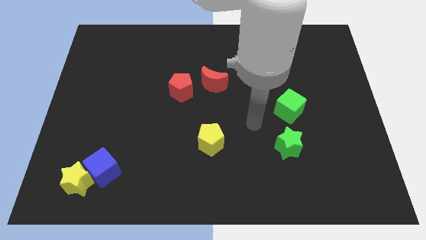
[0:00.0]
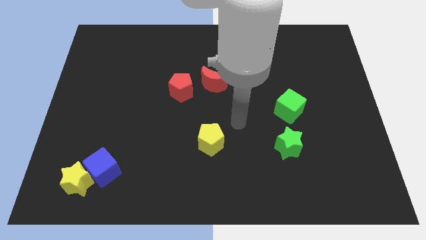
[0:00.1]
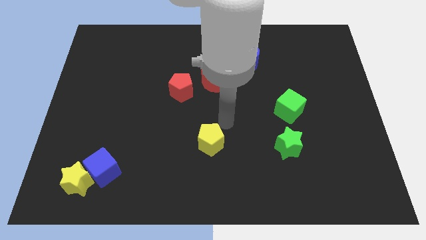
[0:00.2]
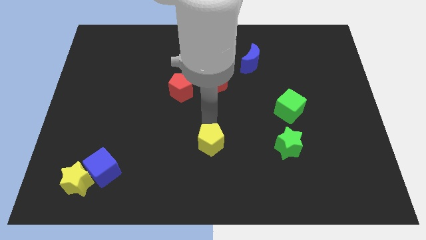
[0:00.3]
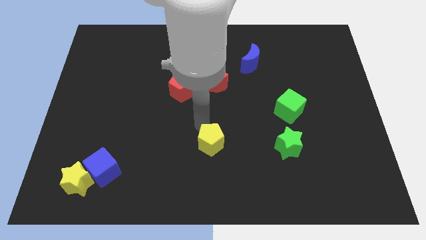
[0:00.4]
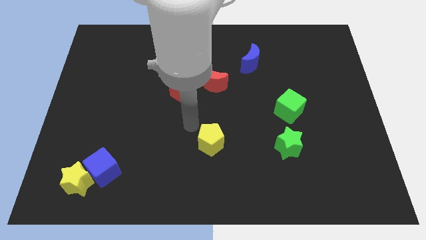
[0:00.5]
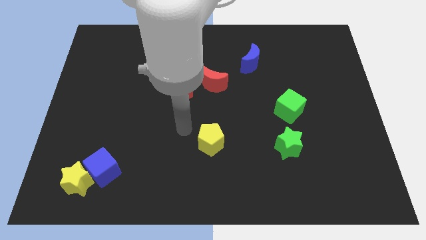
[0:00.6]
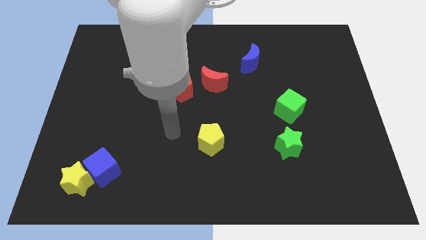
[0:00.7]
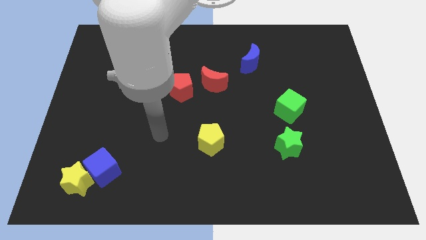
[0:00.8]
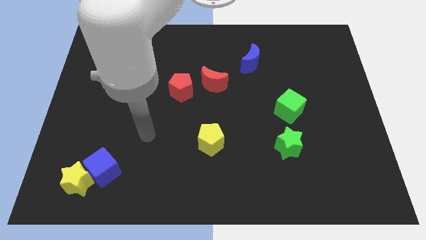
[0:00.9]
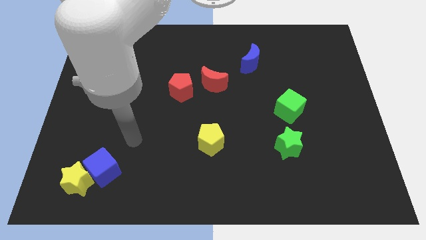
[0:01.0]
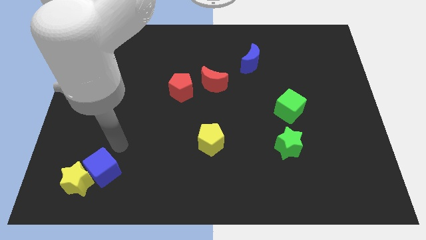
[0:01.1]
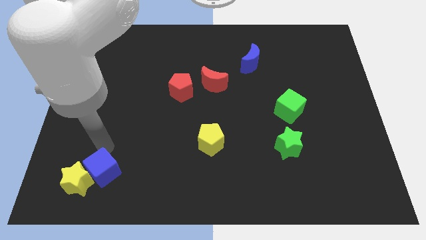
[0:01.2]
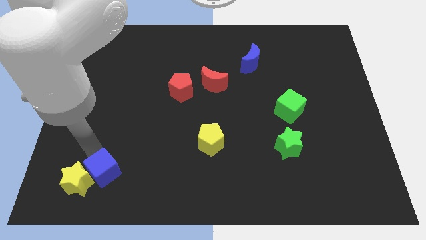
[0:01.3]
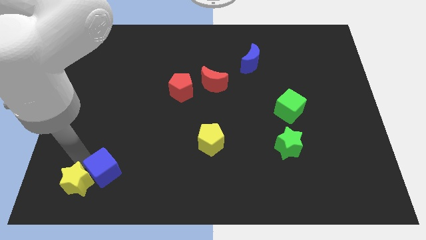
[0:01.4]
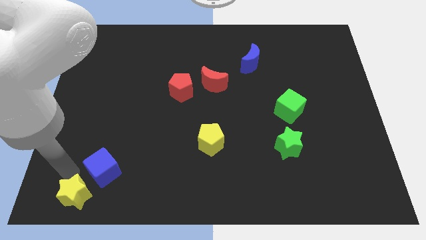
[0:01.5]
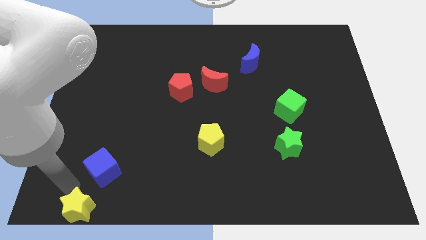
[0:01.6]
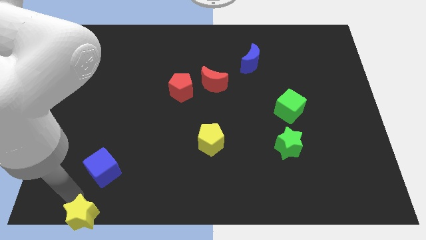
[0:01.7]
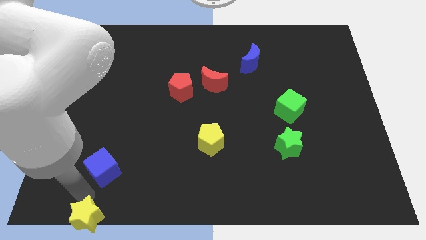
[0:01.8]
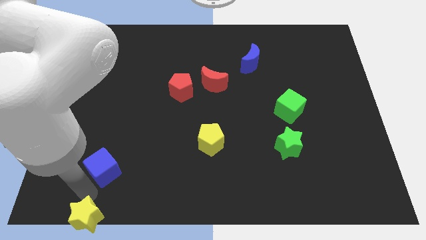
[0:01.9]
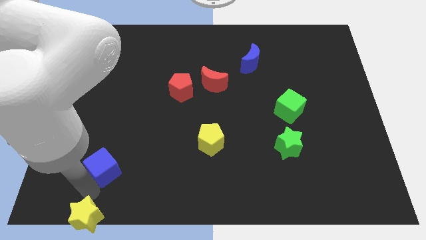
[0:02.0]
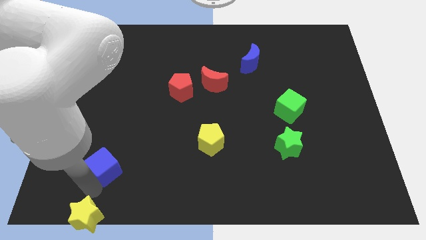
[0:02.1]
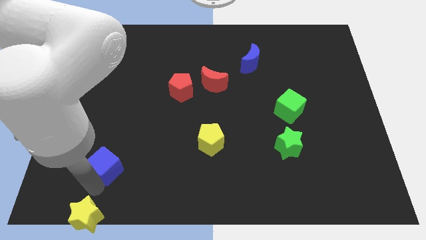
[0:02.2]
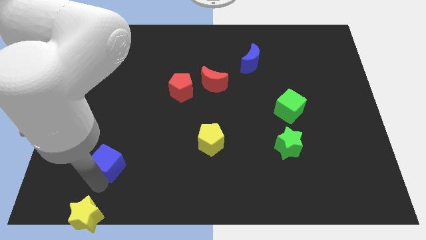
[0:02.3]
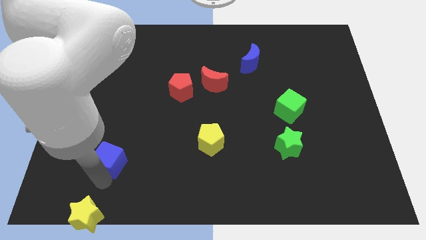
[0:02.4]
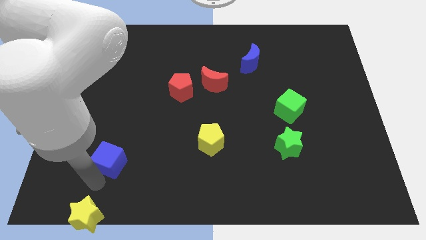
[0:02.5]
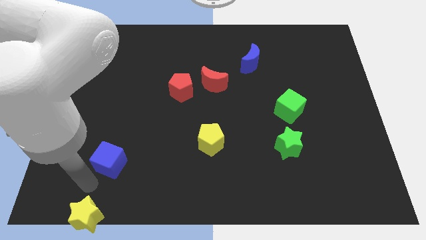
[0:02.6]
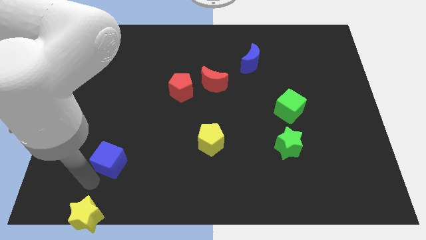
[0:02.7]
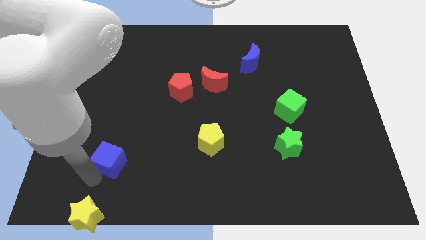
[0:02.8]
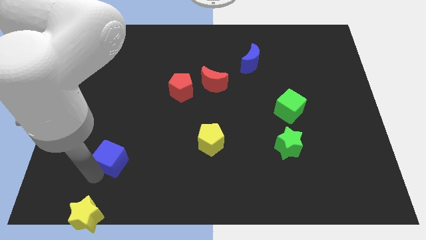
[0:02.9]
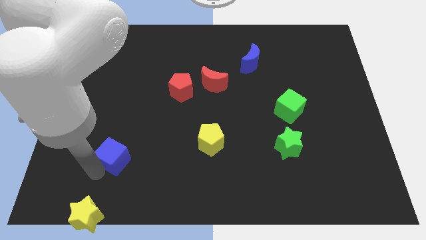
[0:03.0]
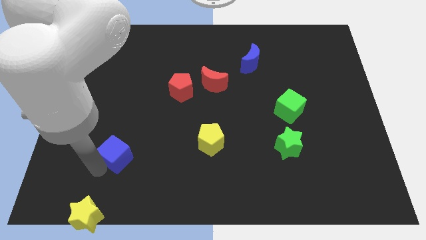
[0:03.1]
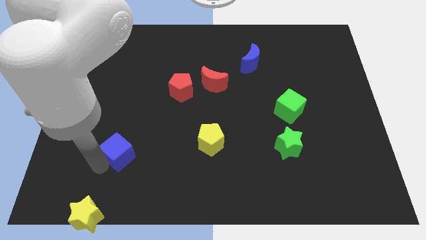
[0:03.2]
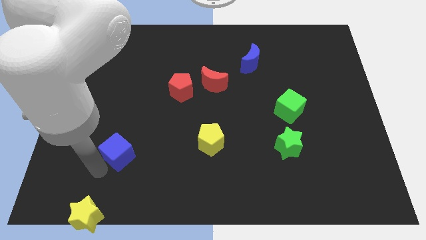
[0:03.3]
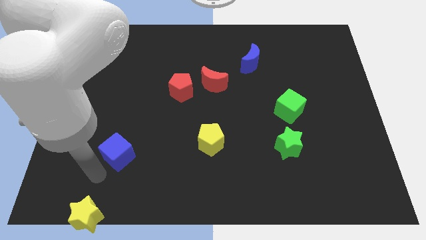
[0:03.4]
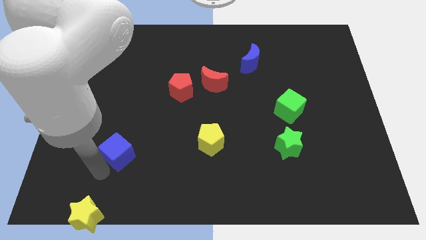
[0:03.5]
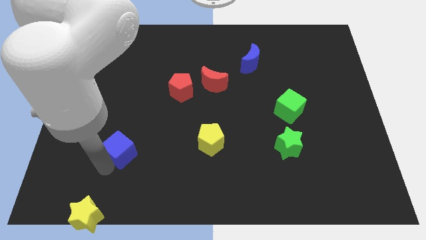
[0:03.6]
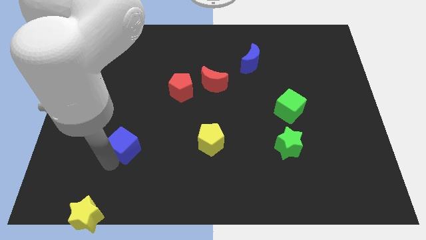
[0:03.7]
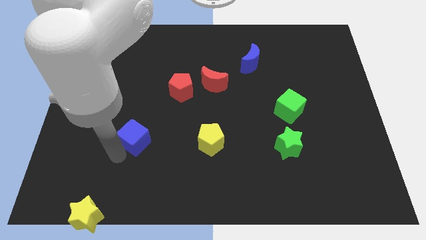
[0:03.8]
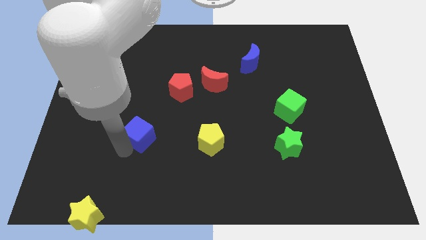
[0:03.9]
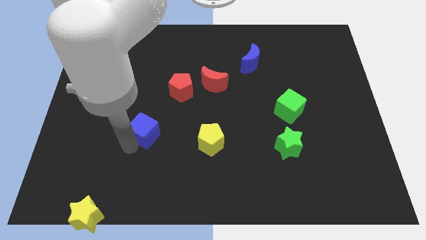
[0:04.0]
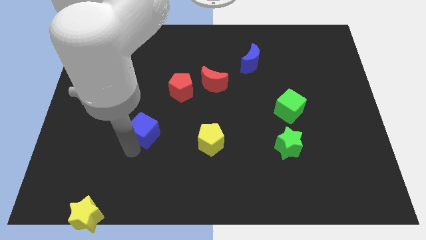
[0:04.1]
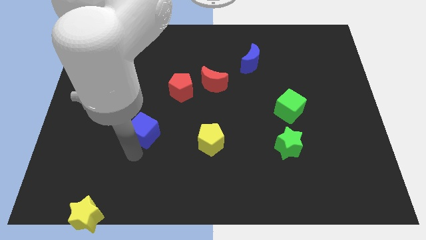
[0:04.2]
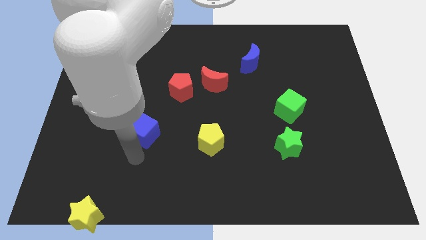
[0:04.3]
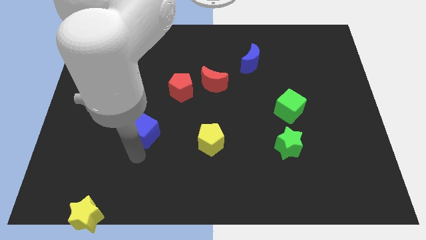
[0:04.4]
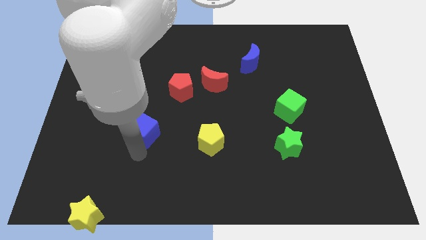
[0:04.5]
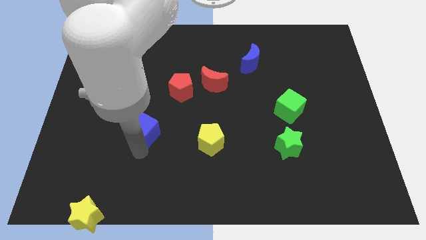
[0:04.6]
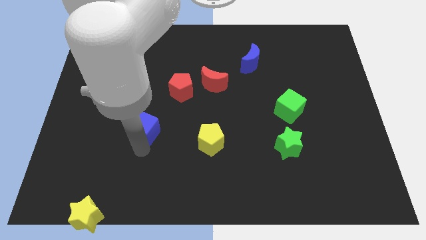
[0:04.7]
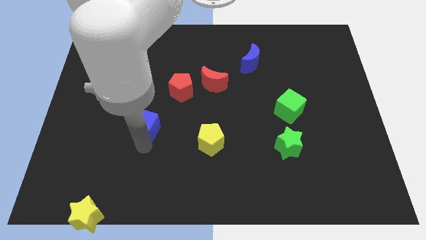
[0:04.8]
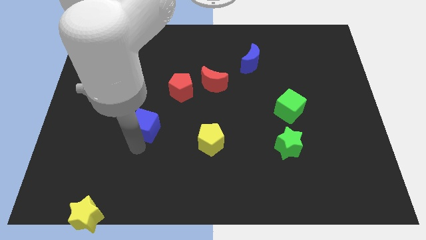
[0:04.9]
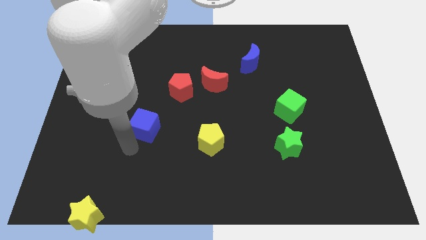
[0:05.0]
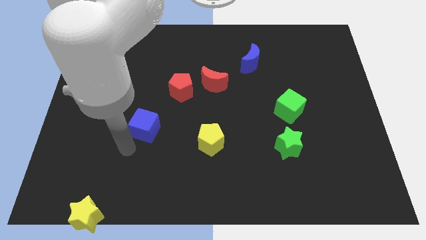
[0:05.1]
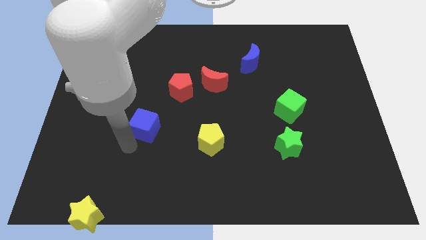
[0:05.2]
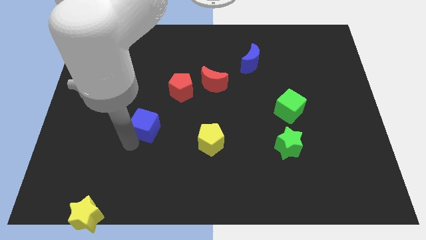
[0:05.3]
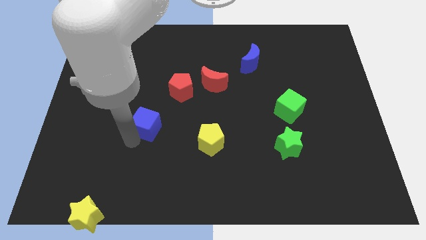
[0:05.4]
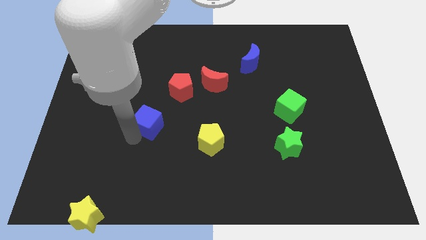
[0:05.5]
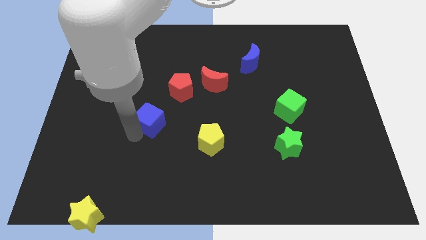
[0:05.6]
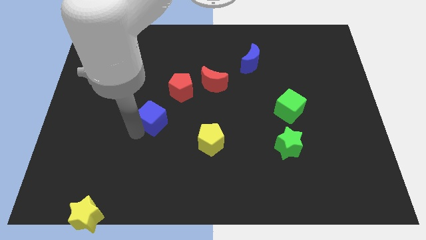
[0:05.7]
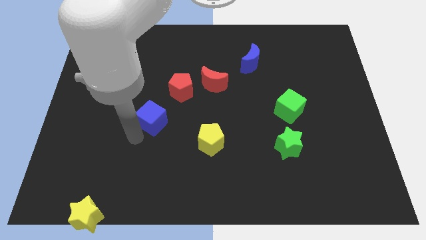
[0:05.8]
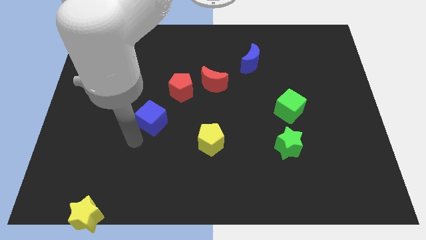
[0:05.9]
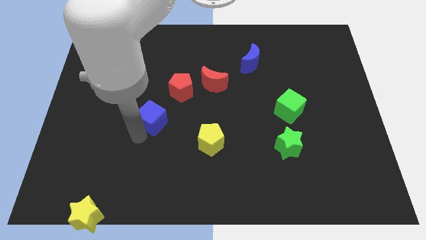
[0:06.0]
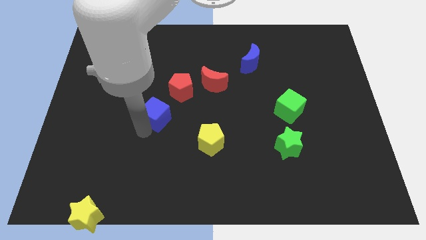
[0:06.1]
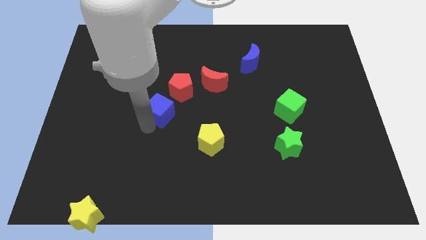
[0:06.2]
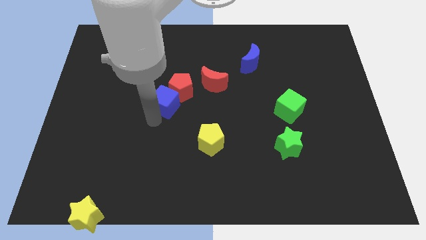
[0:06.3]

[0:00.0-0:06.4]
slide the blue cube to the red pentagon

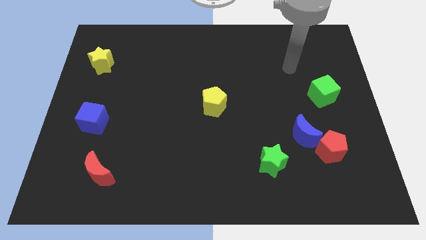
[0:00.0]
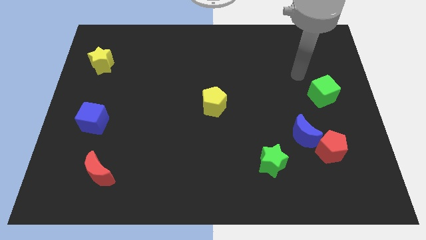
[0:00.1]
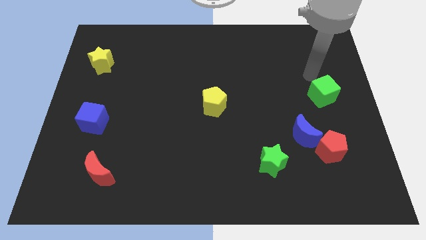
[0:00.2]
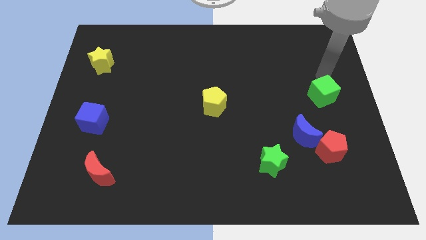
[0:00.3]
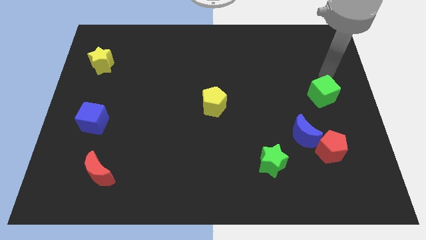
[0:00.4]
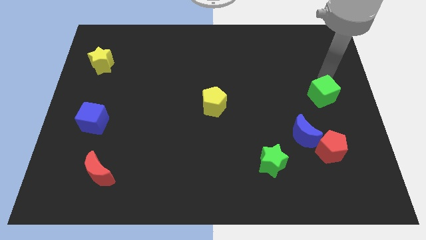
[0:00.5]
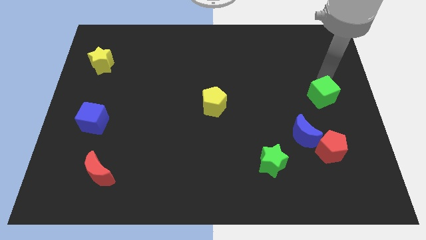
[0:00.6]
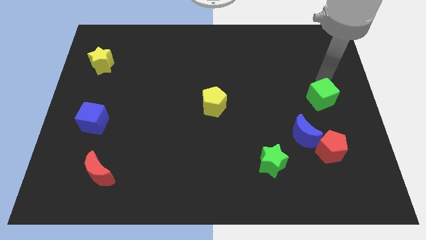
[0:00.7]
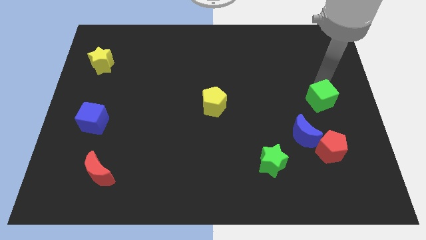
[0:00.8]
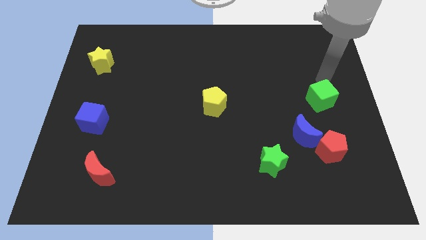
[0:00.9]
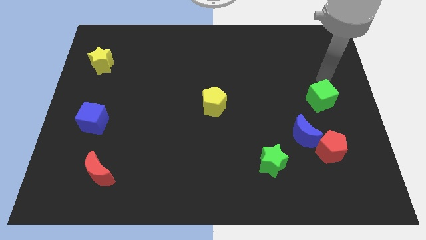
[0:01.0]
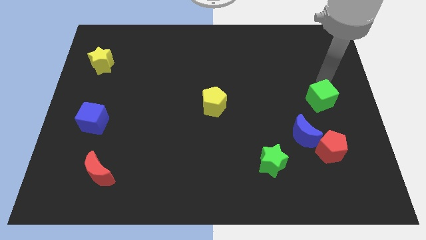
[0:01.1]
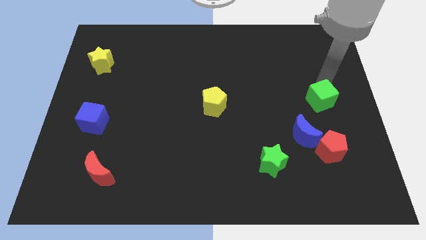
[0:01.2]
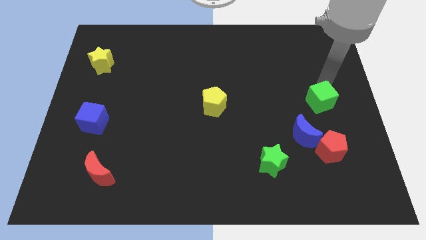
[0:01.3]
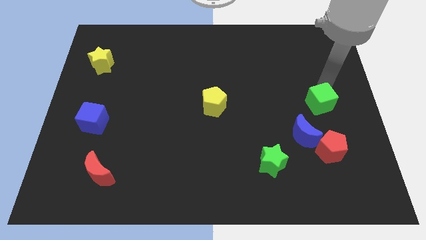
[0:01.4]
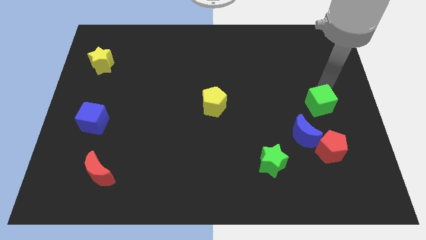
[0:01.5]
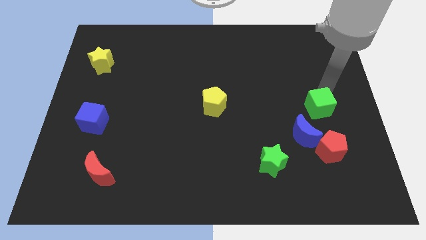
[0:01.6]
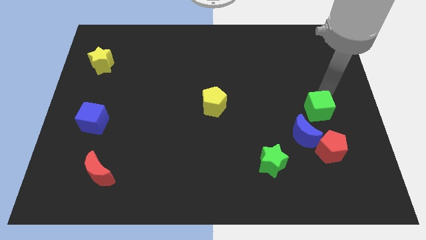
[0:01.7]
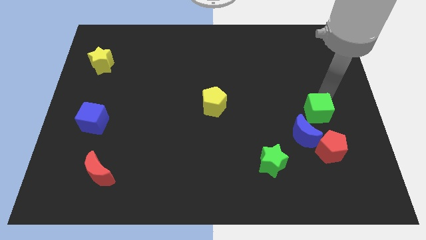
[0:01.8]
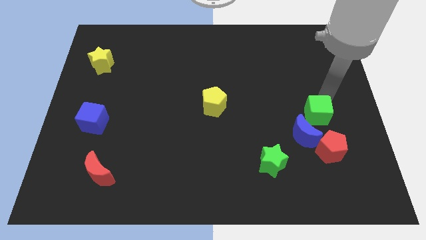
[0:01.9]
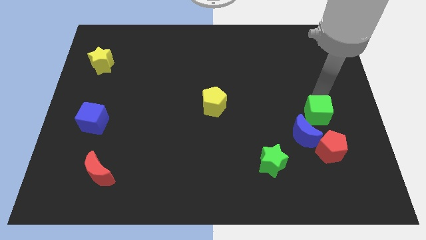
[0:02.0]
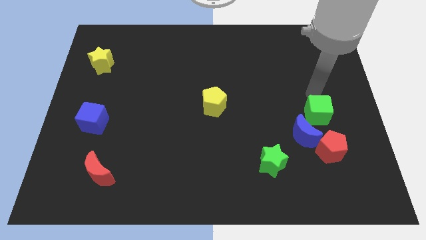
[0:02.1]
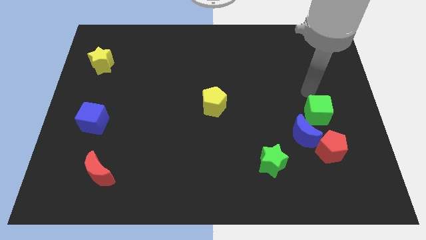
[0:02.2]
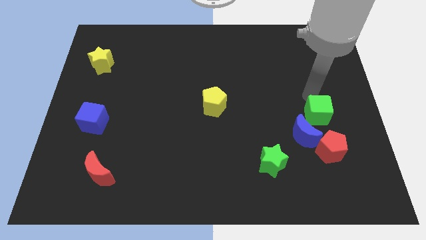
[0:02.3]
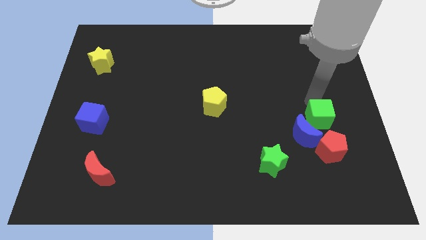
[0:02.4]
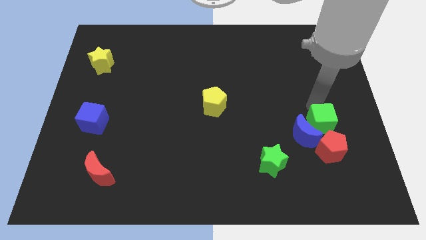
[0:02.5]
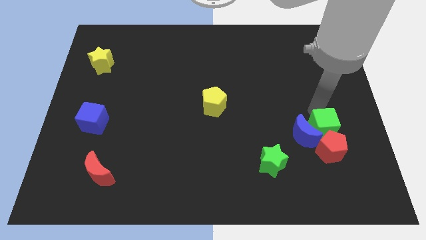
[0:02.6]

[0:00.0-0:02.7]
slide the green cube next to the red pentagon
